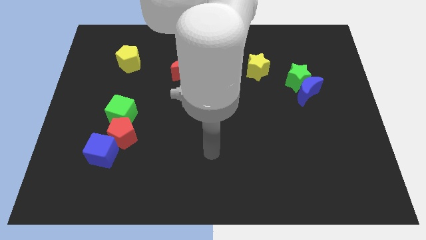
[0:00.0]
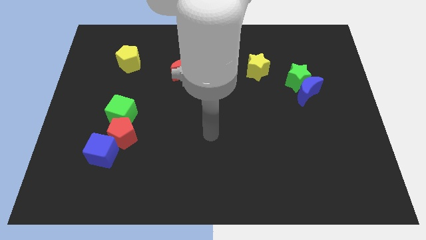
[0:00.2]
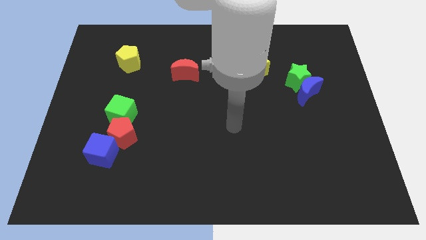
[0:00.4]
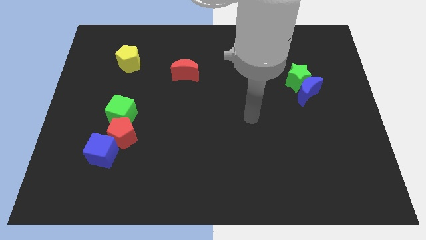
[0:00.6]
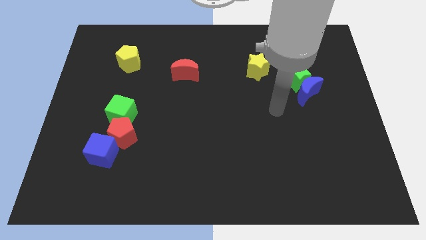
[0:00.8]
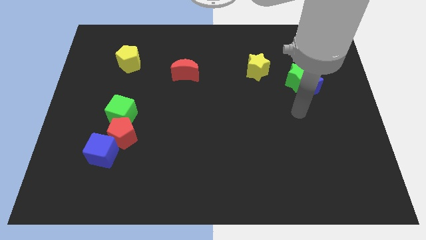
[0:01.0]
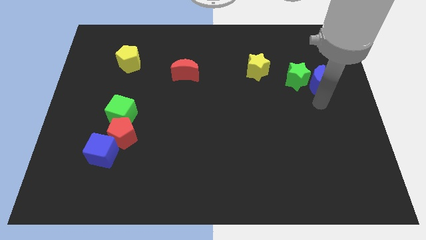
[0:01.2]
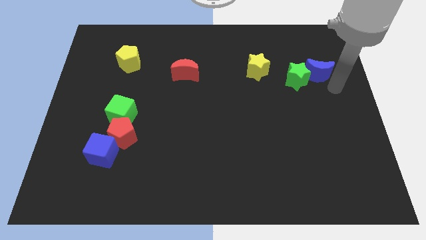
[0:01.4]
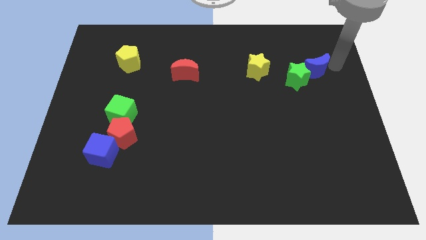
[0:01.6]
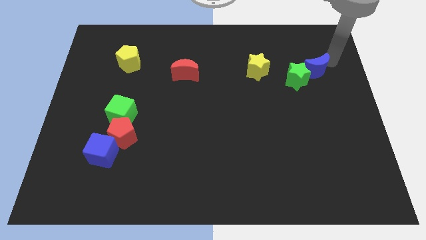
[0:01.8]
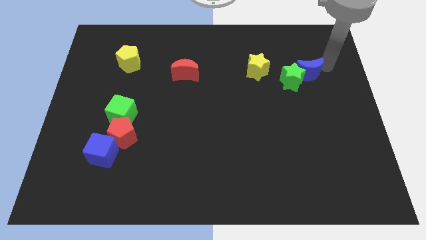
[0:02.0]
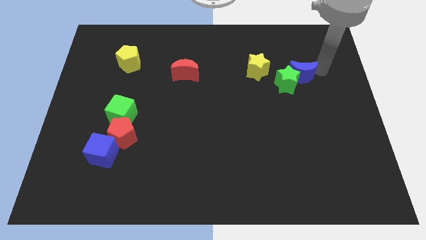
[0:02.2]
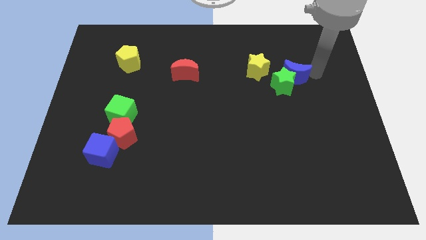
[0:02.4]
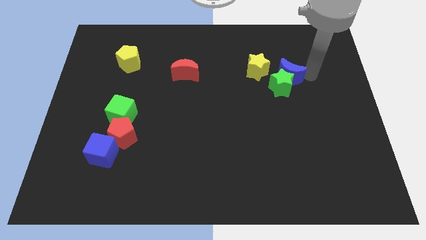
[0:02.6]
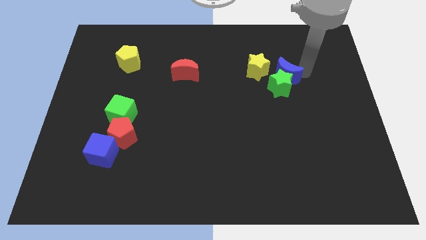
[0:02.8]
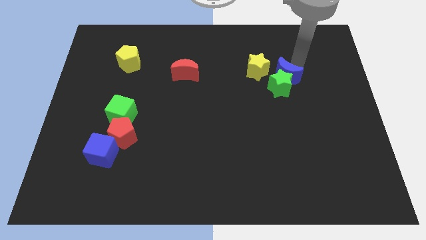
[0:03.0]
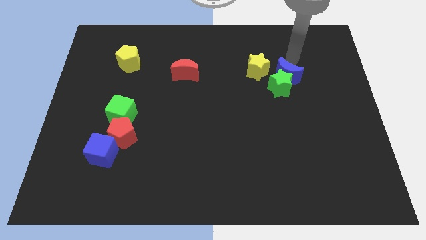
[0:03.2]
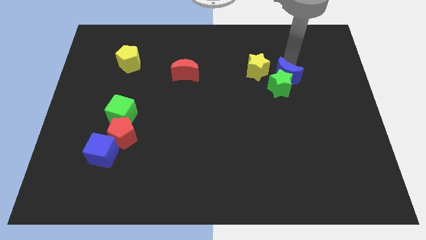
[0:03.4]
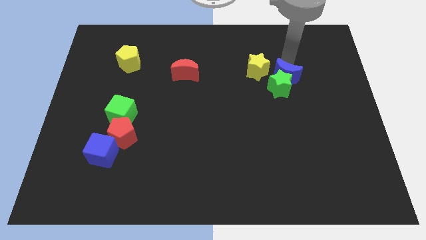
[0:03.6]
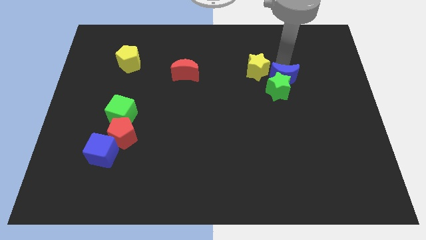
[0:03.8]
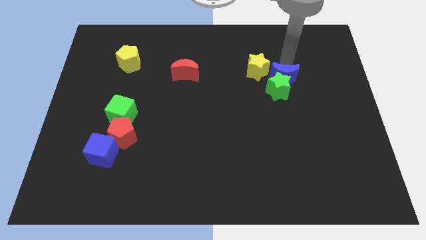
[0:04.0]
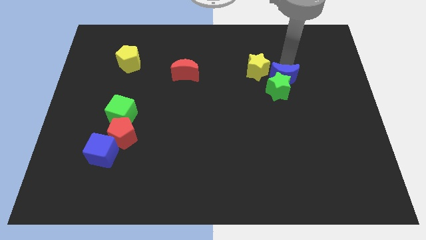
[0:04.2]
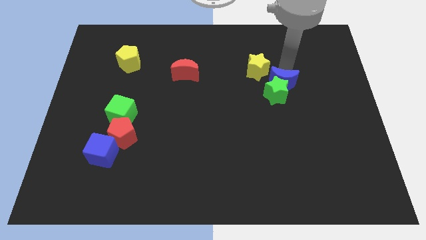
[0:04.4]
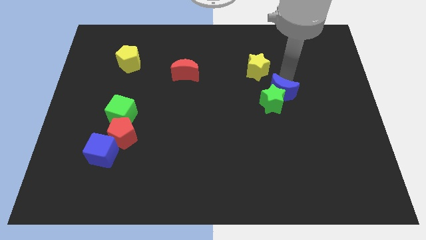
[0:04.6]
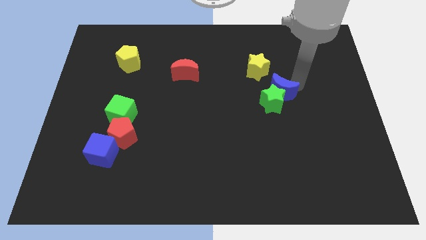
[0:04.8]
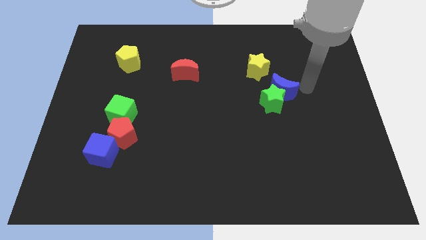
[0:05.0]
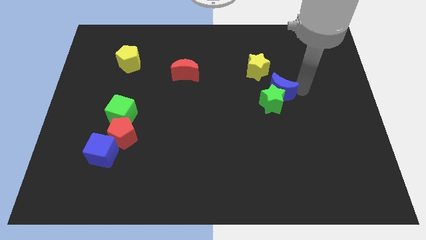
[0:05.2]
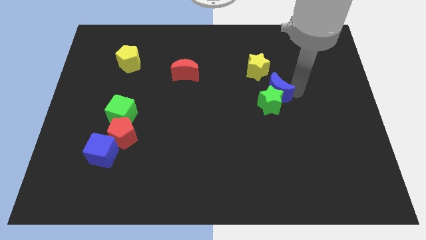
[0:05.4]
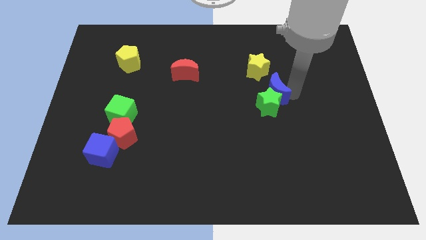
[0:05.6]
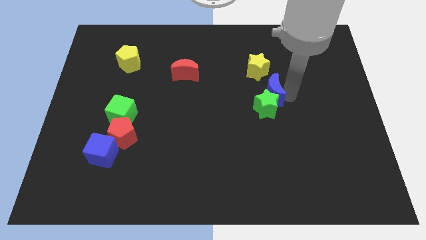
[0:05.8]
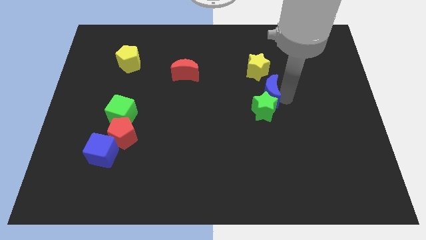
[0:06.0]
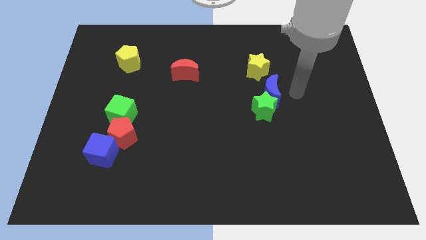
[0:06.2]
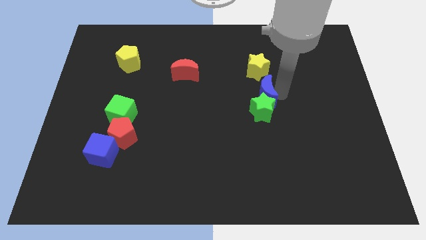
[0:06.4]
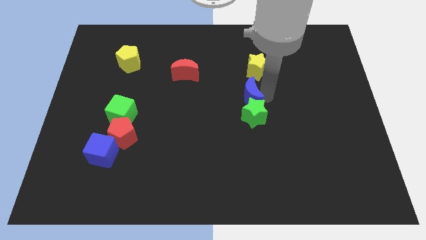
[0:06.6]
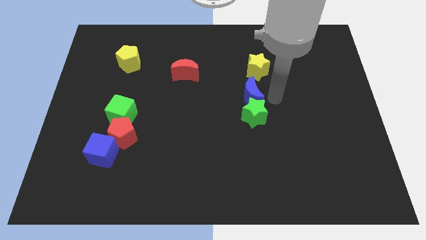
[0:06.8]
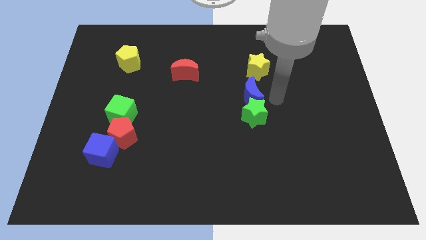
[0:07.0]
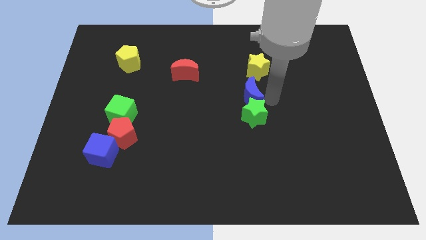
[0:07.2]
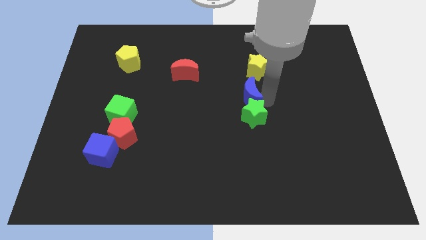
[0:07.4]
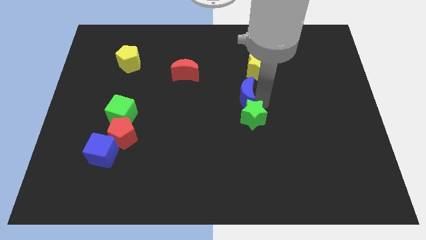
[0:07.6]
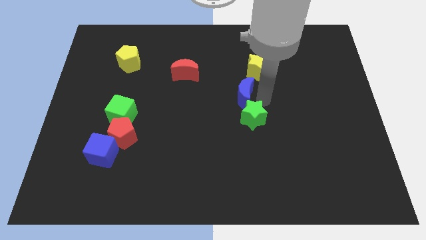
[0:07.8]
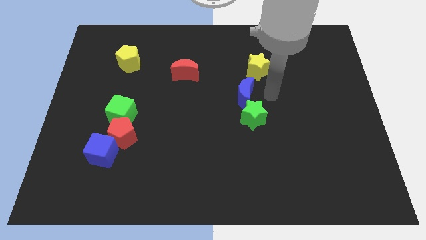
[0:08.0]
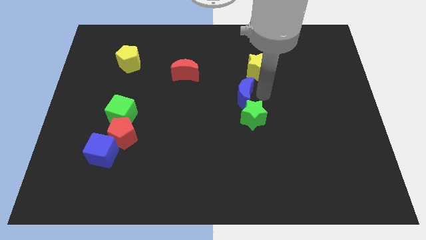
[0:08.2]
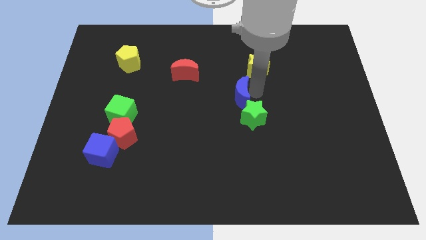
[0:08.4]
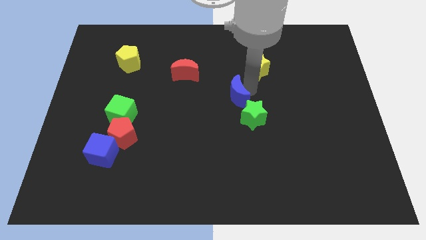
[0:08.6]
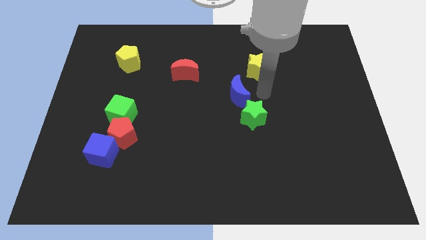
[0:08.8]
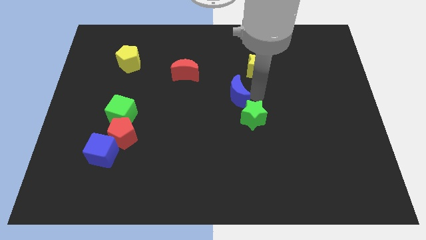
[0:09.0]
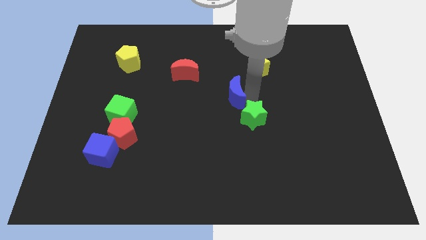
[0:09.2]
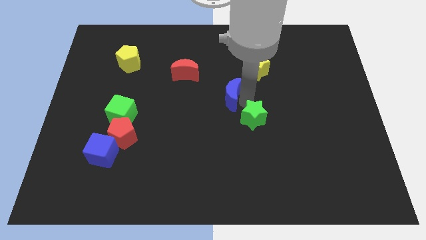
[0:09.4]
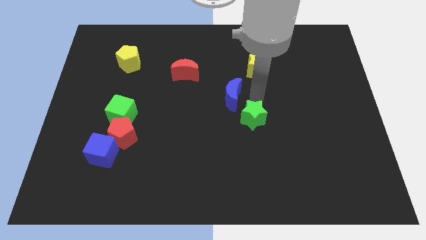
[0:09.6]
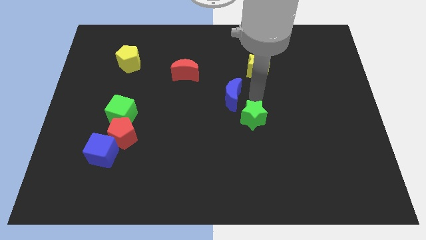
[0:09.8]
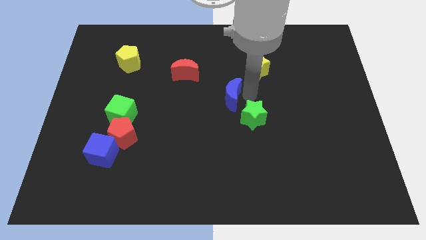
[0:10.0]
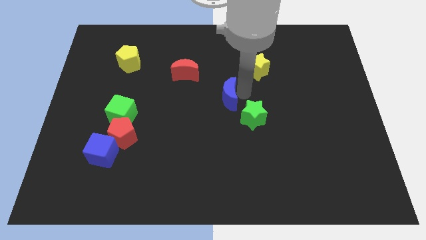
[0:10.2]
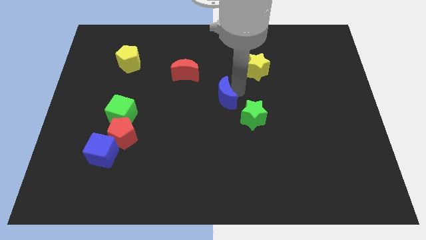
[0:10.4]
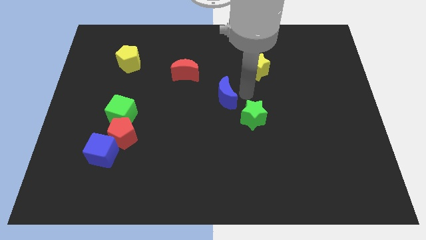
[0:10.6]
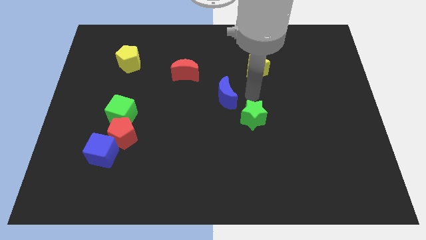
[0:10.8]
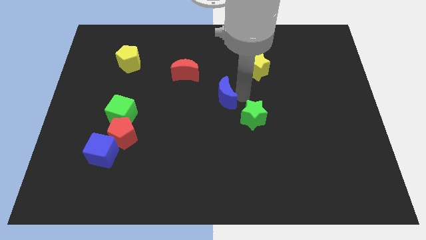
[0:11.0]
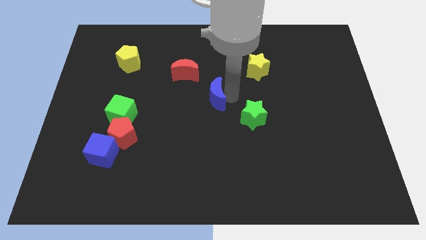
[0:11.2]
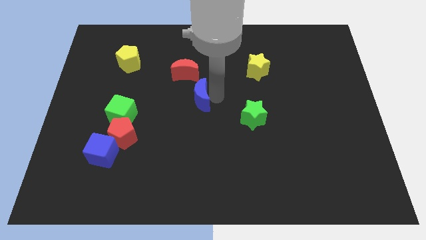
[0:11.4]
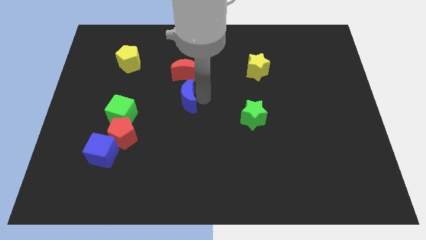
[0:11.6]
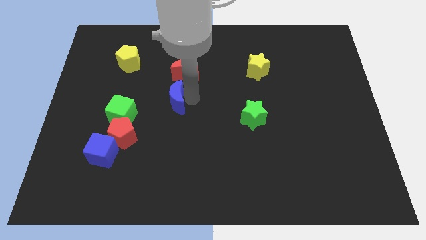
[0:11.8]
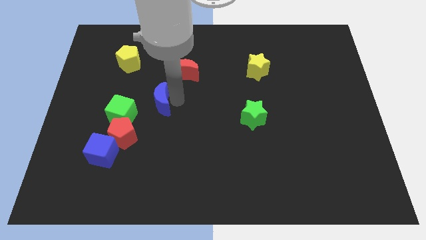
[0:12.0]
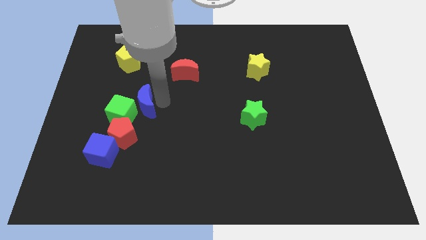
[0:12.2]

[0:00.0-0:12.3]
move the blue moon close to the green cube
